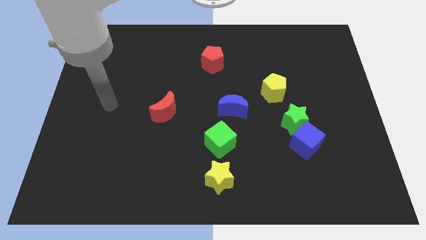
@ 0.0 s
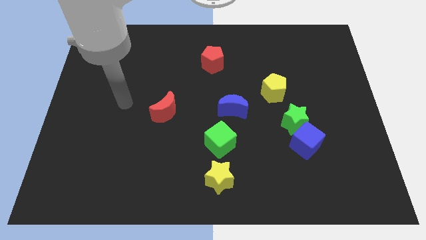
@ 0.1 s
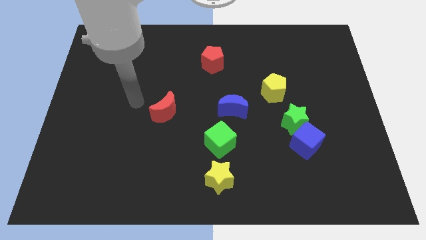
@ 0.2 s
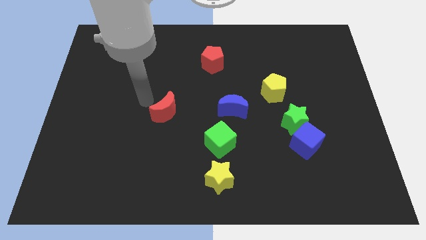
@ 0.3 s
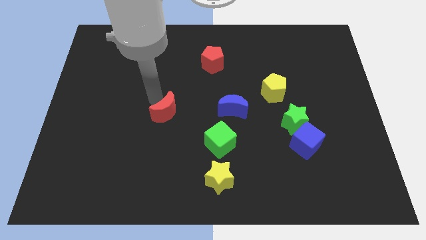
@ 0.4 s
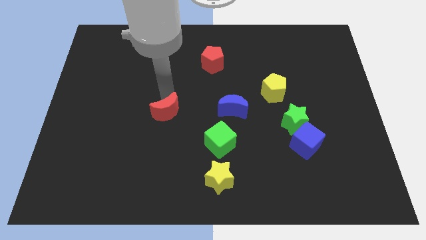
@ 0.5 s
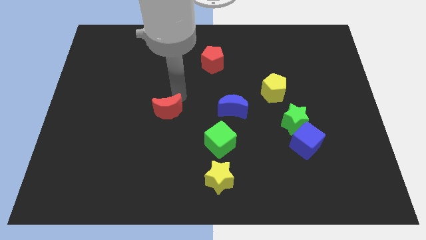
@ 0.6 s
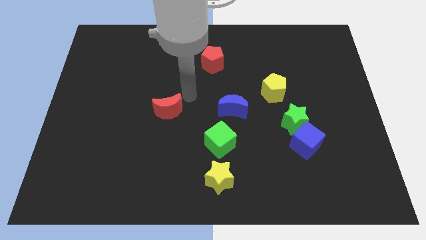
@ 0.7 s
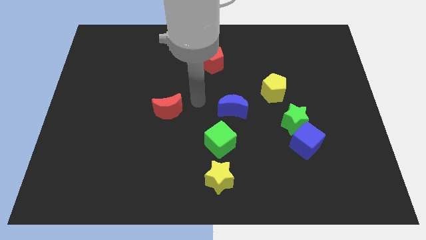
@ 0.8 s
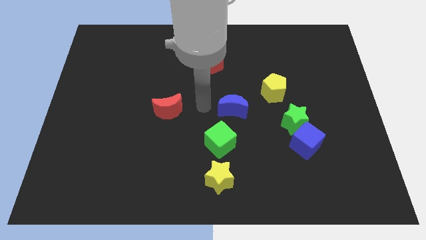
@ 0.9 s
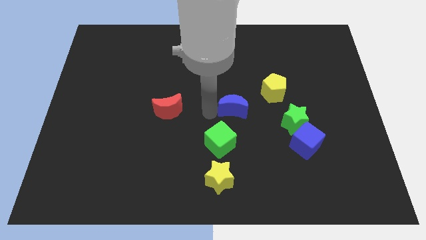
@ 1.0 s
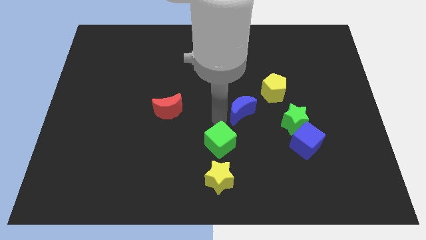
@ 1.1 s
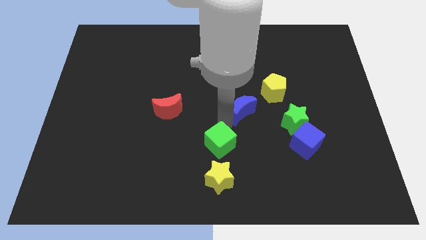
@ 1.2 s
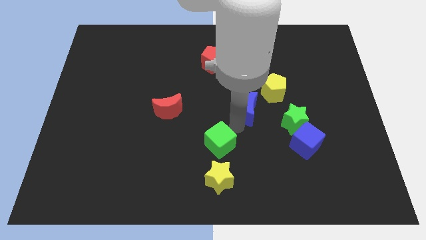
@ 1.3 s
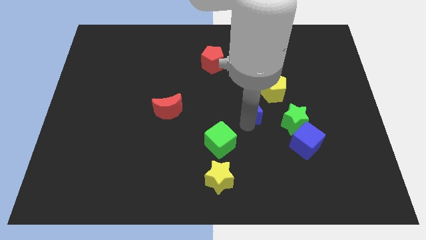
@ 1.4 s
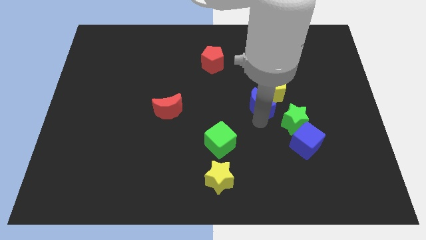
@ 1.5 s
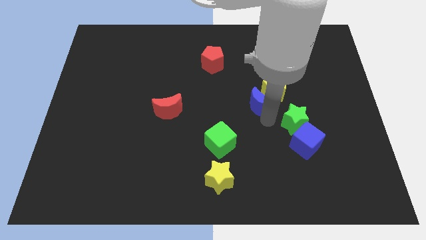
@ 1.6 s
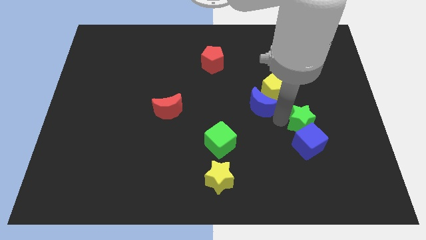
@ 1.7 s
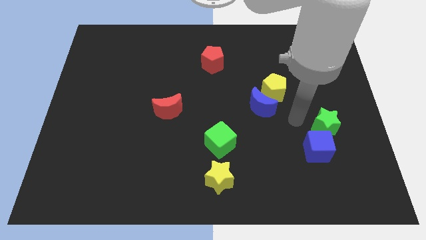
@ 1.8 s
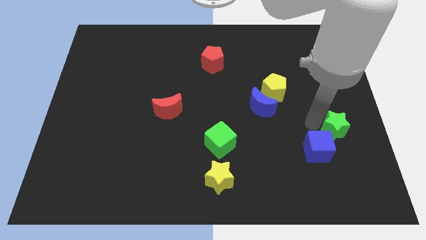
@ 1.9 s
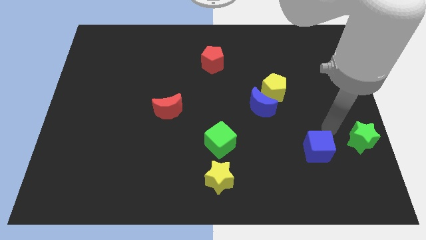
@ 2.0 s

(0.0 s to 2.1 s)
pull the blue cube apart from the green star

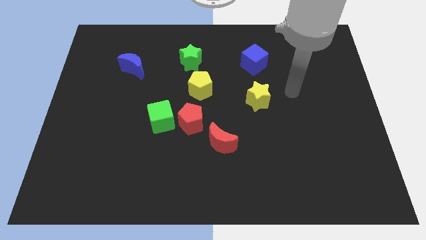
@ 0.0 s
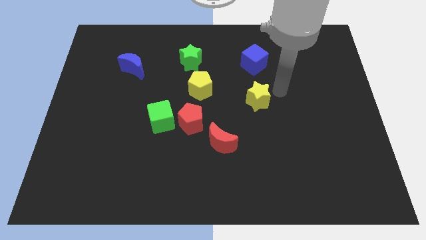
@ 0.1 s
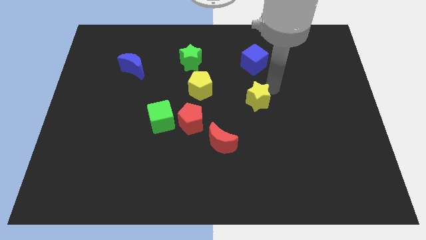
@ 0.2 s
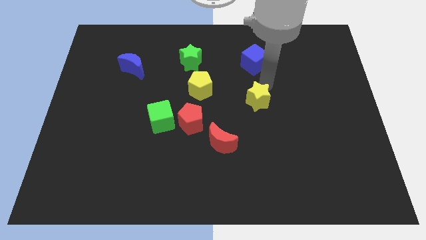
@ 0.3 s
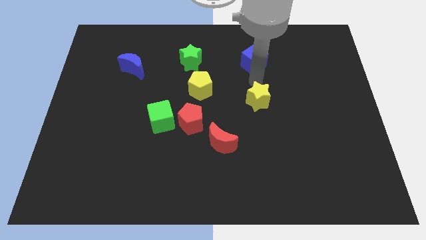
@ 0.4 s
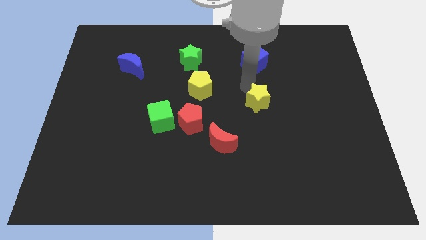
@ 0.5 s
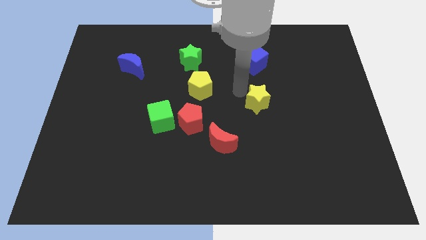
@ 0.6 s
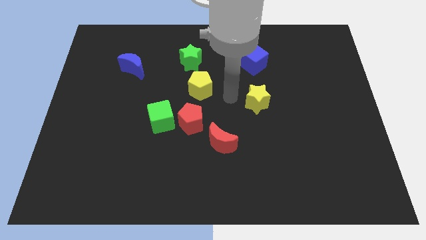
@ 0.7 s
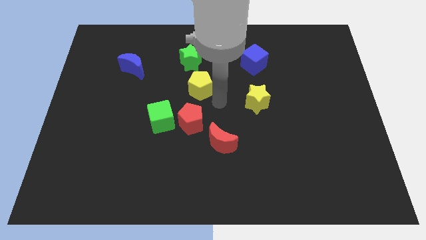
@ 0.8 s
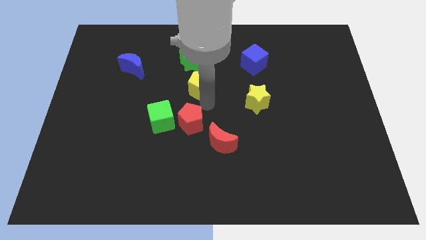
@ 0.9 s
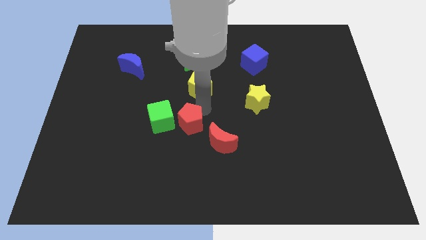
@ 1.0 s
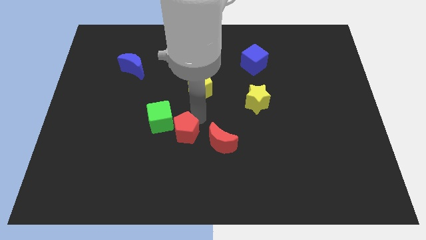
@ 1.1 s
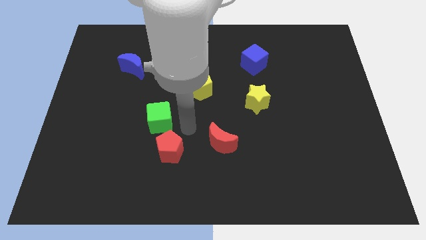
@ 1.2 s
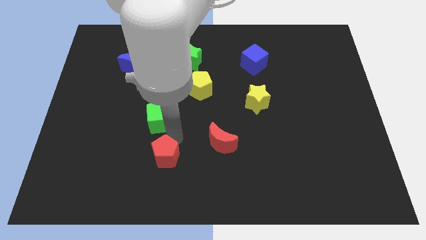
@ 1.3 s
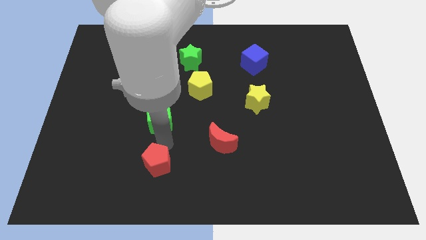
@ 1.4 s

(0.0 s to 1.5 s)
separate the green cube from the red pentagon

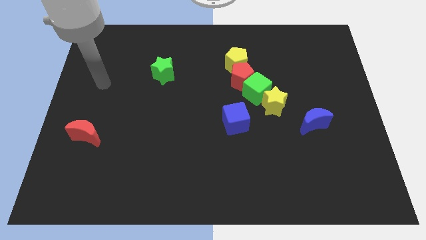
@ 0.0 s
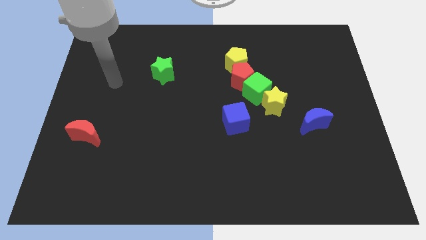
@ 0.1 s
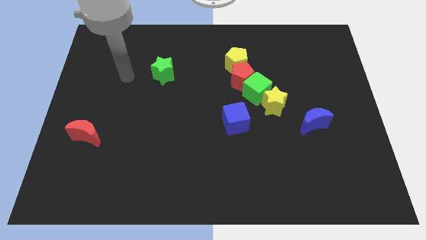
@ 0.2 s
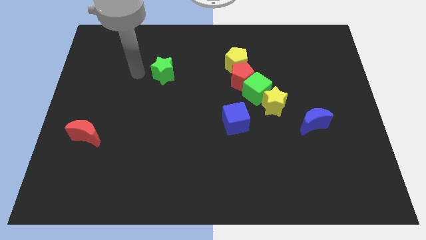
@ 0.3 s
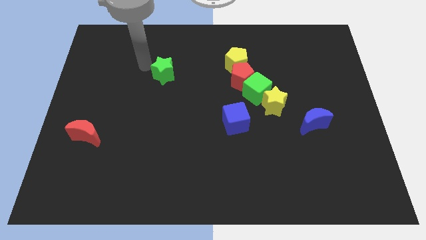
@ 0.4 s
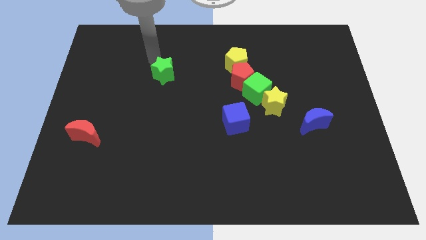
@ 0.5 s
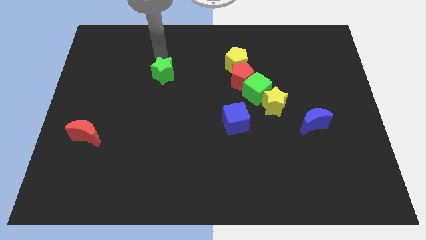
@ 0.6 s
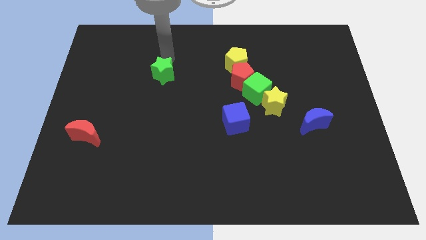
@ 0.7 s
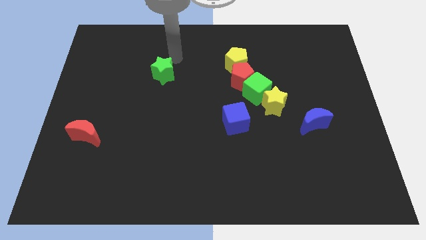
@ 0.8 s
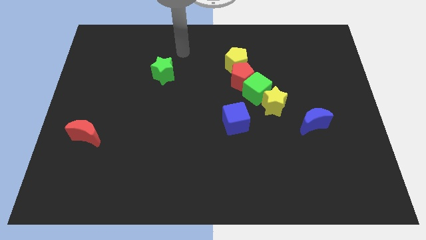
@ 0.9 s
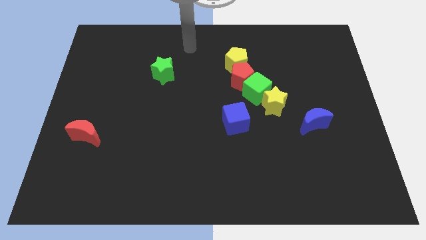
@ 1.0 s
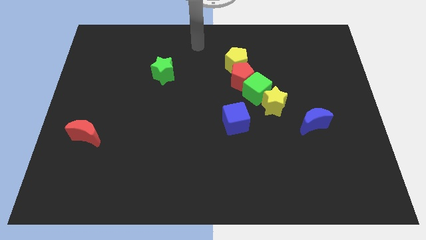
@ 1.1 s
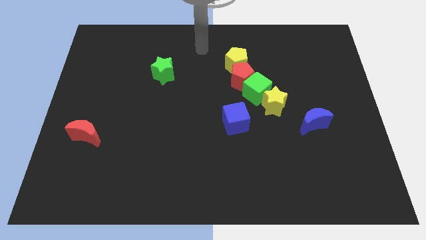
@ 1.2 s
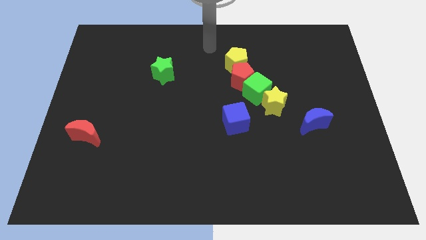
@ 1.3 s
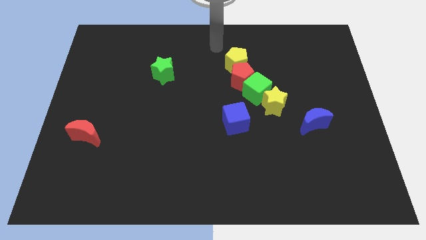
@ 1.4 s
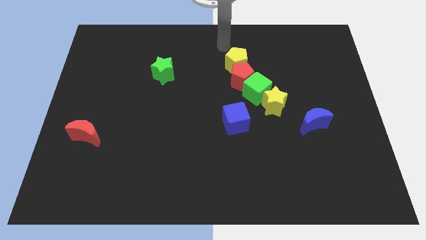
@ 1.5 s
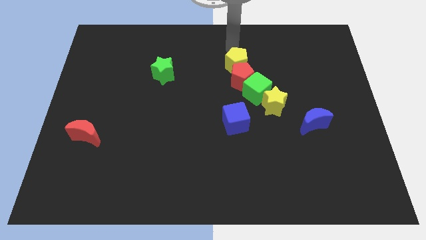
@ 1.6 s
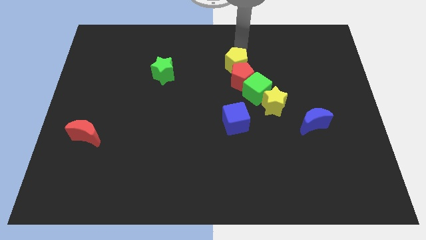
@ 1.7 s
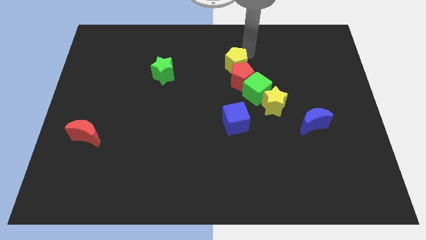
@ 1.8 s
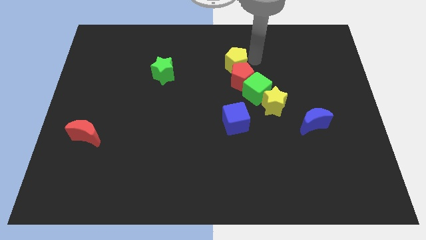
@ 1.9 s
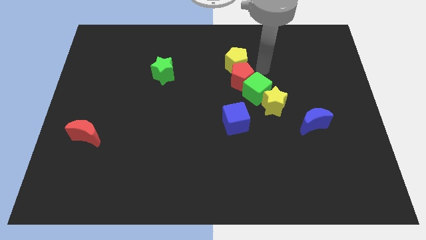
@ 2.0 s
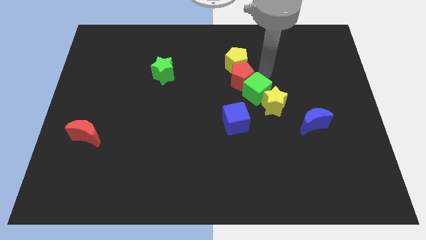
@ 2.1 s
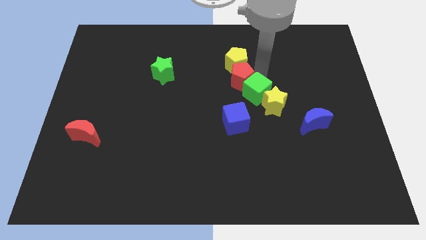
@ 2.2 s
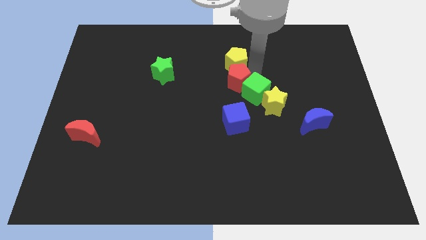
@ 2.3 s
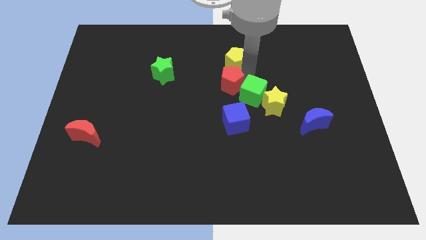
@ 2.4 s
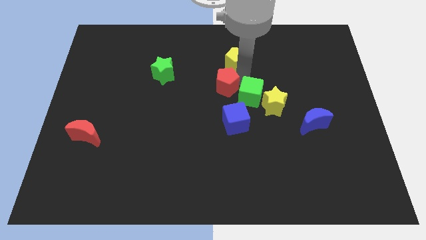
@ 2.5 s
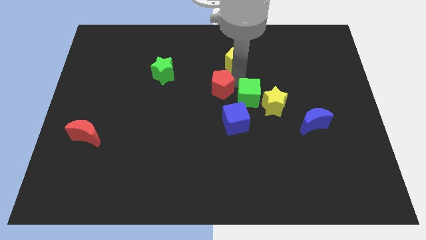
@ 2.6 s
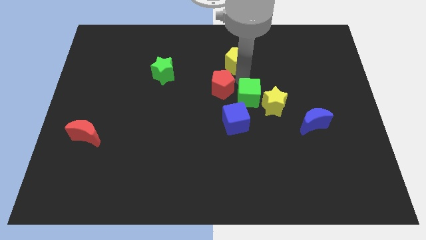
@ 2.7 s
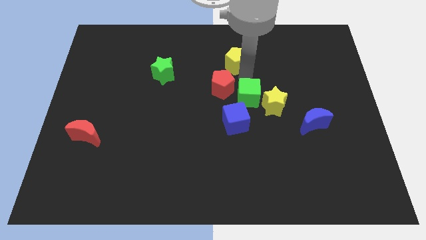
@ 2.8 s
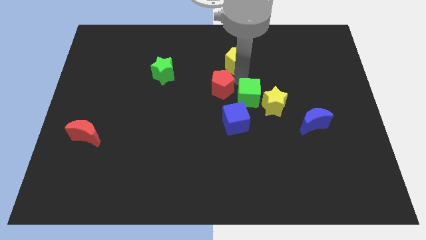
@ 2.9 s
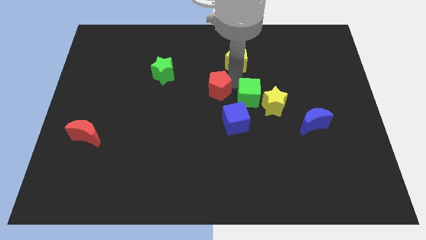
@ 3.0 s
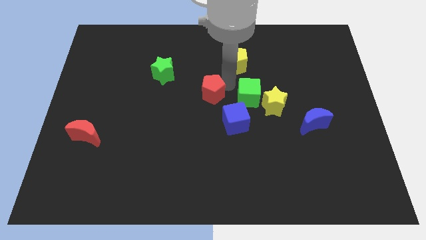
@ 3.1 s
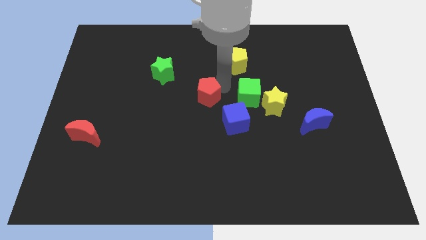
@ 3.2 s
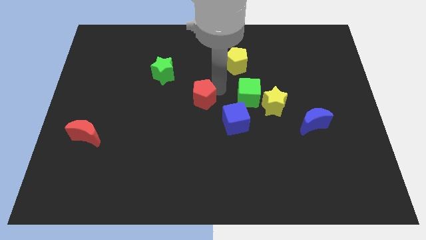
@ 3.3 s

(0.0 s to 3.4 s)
move the red pentagon away from the green cube and yellow pentagon

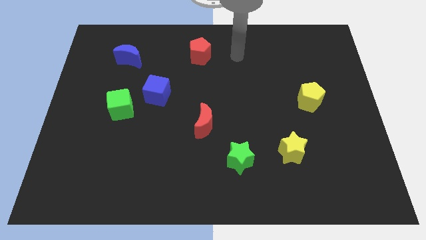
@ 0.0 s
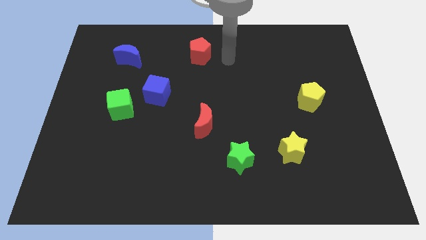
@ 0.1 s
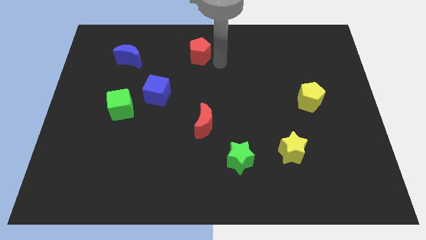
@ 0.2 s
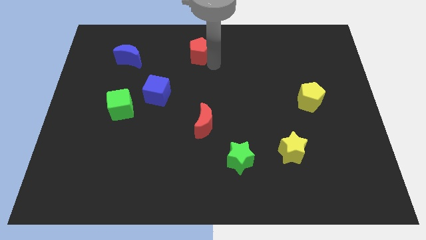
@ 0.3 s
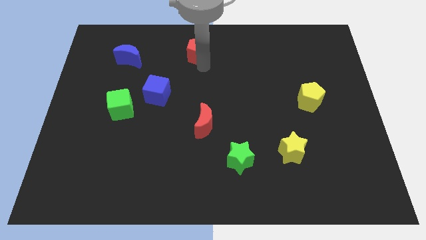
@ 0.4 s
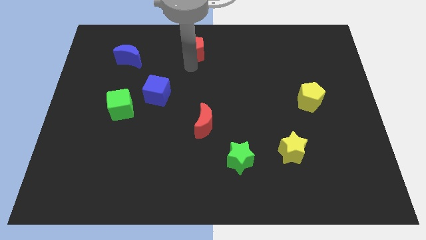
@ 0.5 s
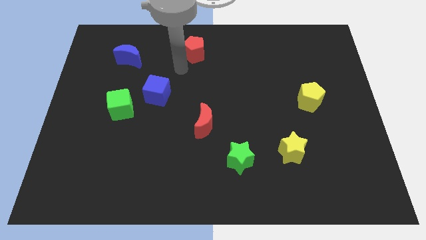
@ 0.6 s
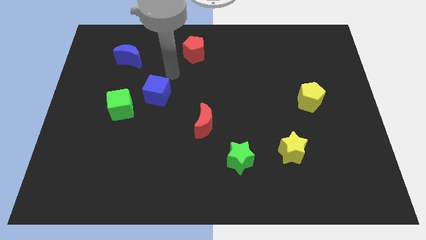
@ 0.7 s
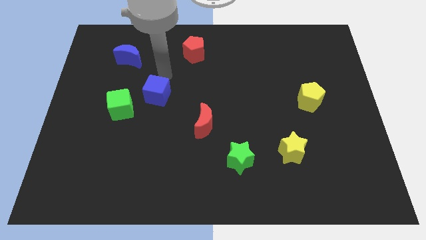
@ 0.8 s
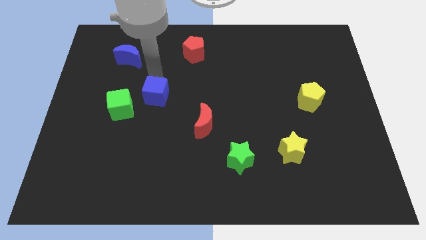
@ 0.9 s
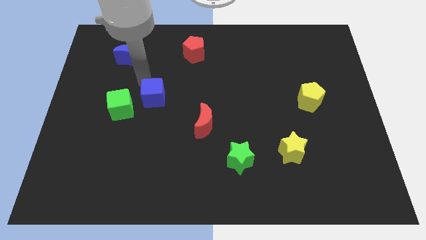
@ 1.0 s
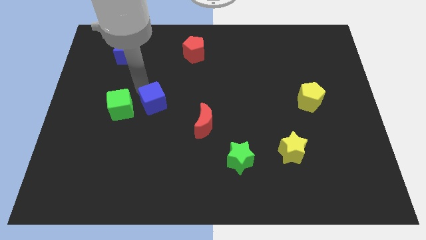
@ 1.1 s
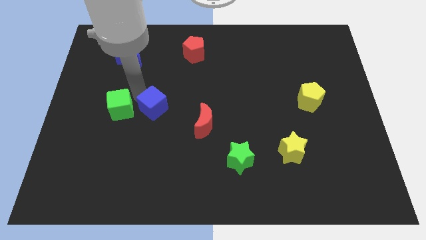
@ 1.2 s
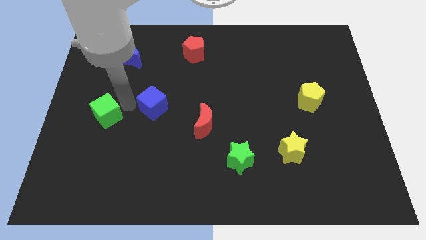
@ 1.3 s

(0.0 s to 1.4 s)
separate the blue cube from the green cube

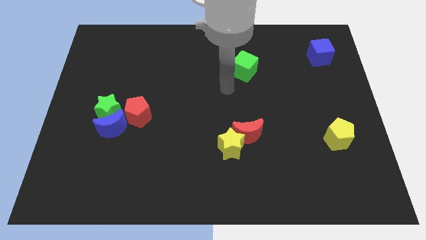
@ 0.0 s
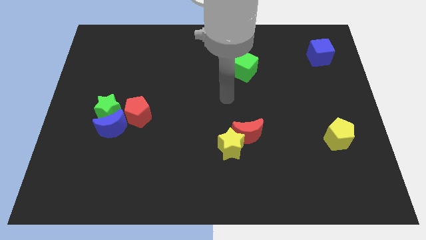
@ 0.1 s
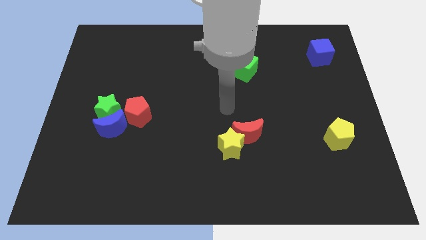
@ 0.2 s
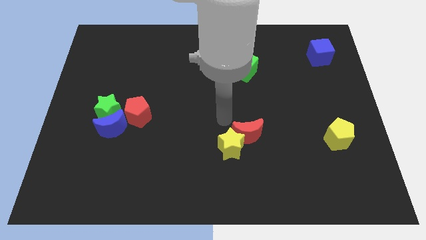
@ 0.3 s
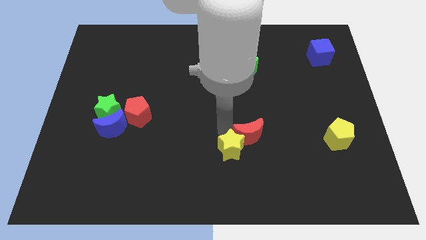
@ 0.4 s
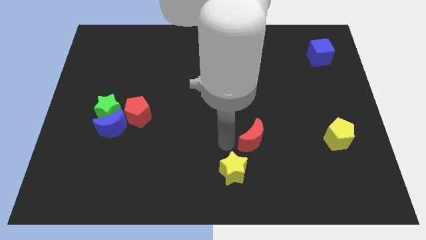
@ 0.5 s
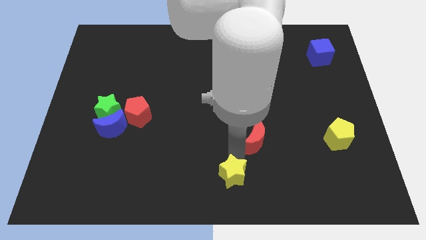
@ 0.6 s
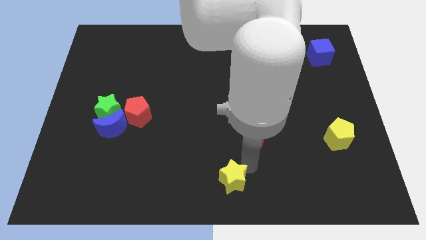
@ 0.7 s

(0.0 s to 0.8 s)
separate the red moon from the yellow star

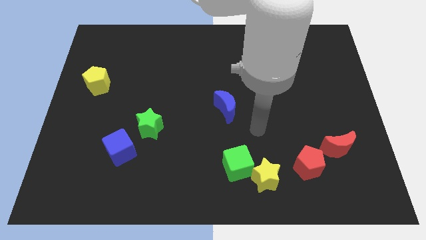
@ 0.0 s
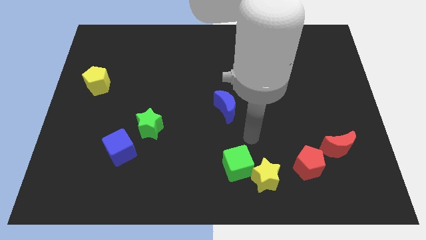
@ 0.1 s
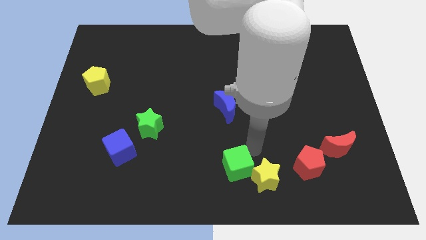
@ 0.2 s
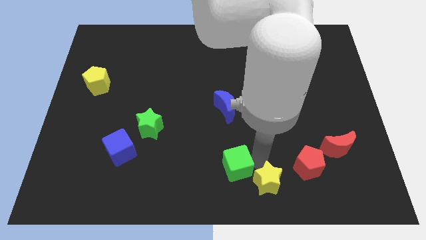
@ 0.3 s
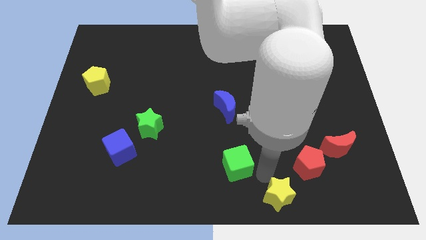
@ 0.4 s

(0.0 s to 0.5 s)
move the green cube away from the yellow star
